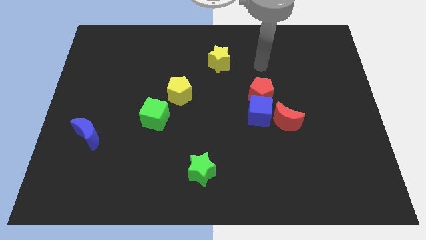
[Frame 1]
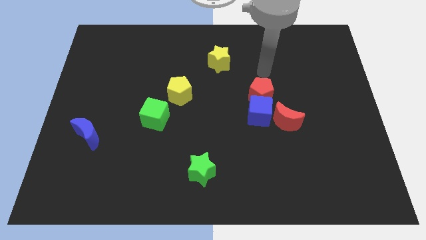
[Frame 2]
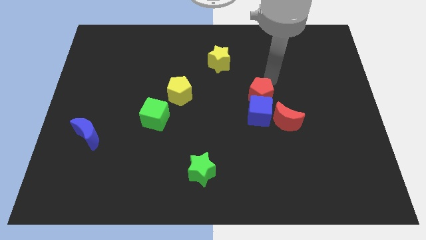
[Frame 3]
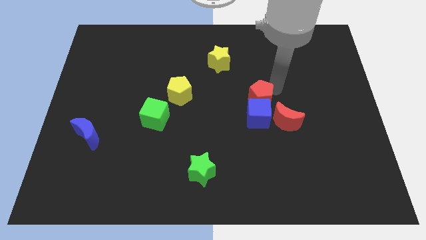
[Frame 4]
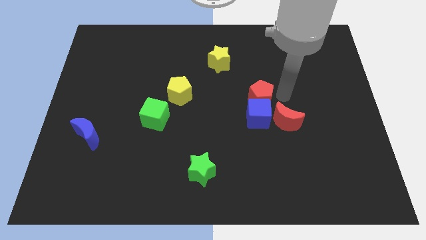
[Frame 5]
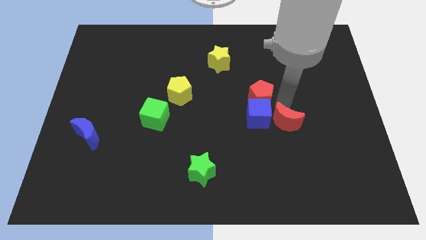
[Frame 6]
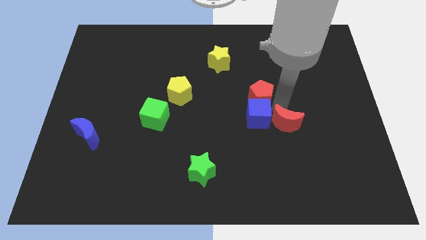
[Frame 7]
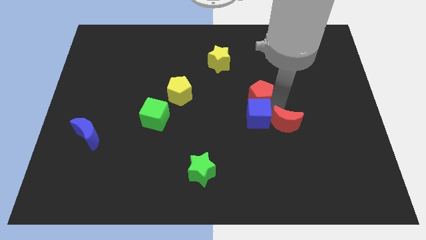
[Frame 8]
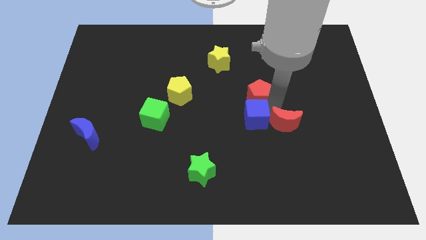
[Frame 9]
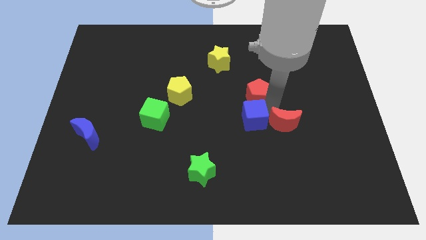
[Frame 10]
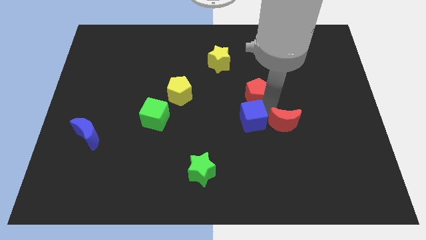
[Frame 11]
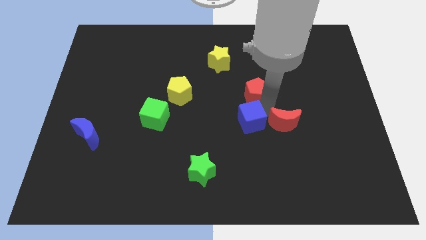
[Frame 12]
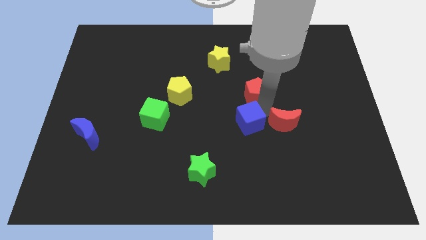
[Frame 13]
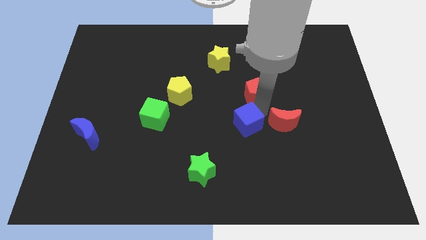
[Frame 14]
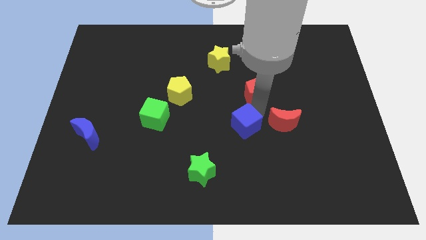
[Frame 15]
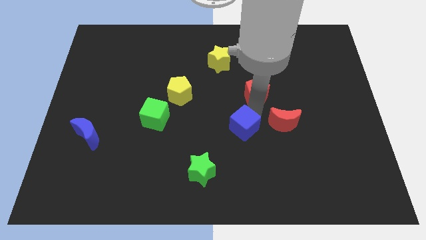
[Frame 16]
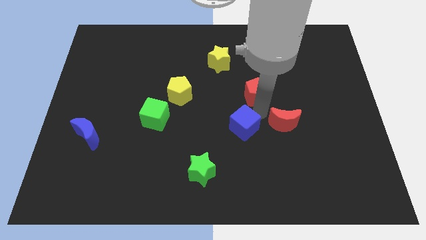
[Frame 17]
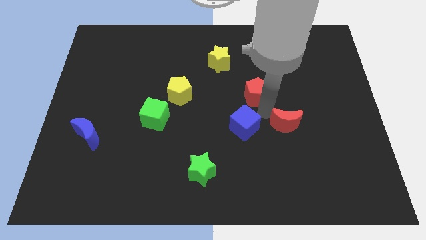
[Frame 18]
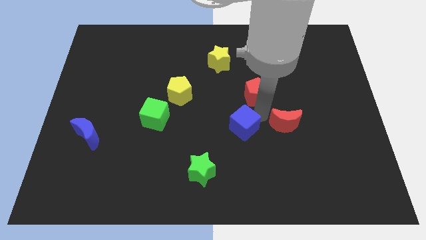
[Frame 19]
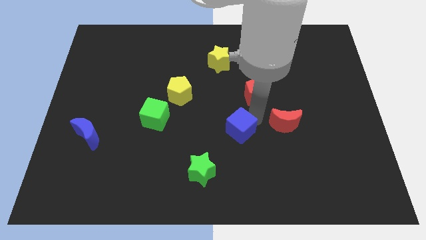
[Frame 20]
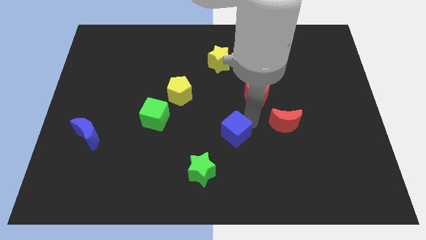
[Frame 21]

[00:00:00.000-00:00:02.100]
separate the blue cube from the red pentagon and red moon

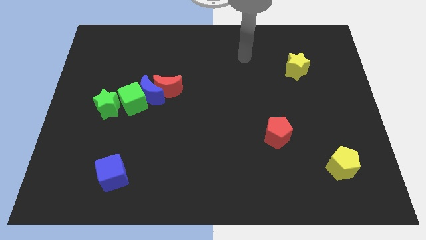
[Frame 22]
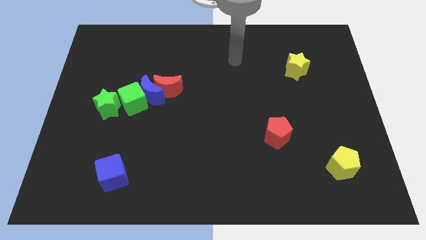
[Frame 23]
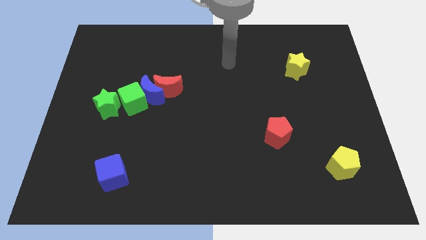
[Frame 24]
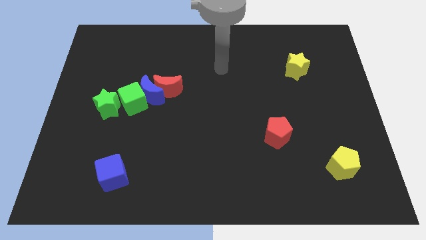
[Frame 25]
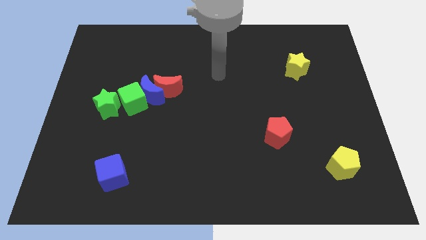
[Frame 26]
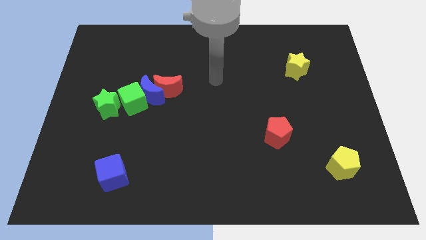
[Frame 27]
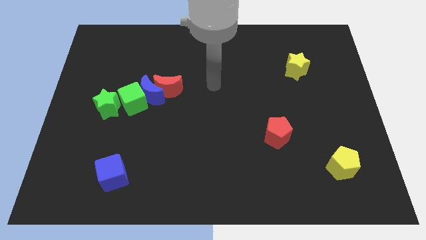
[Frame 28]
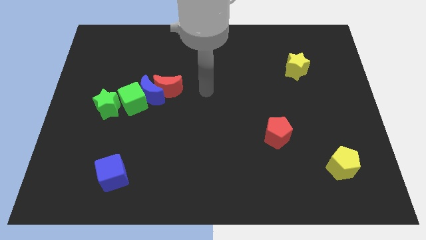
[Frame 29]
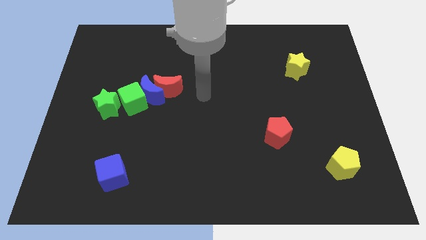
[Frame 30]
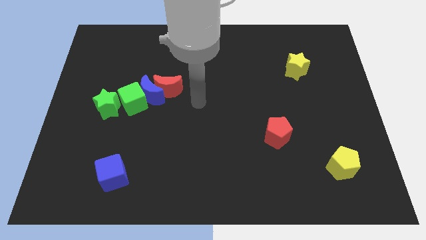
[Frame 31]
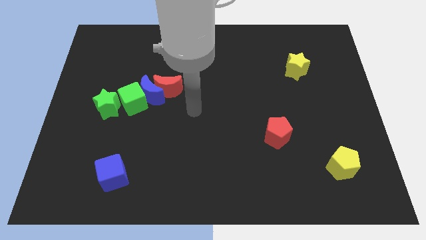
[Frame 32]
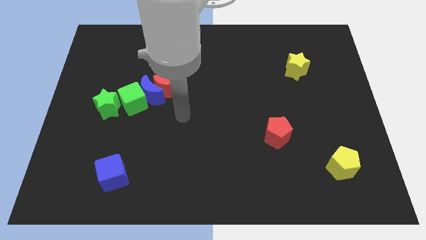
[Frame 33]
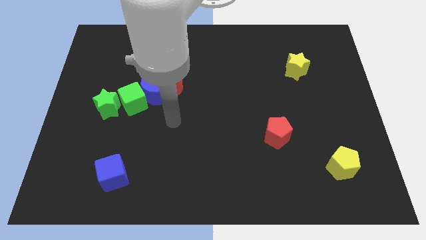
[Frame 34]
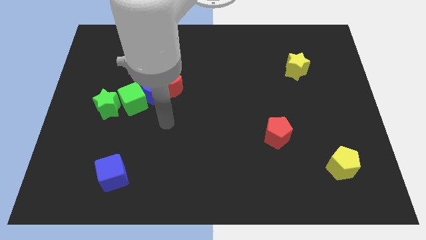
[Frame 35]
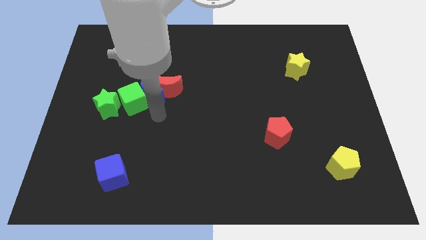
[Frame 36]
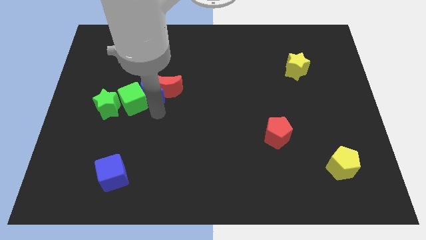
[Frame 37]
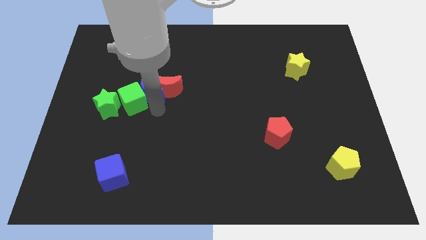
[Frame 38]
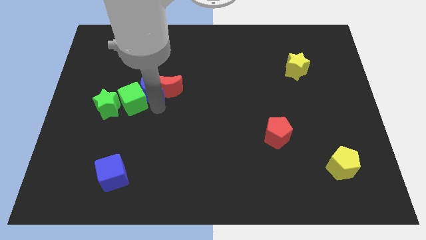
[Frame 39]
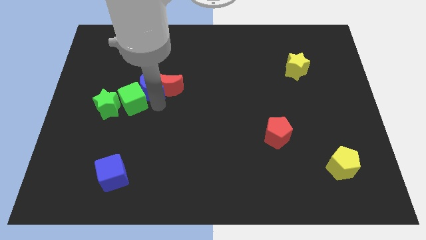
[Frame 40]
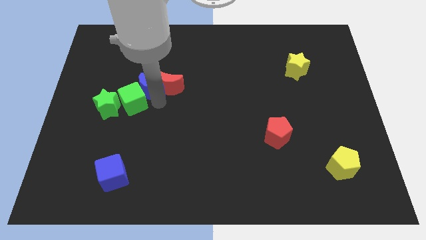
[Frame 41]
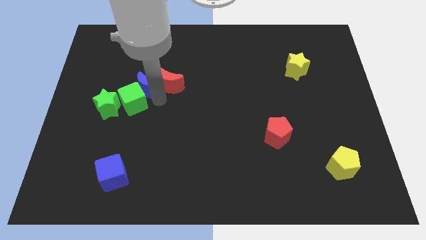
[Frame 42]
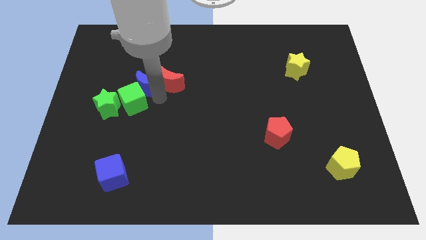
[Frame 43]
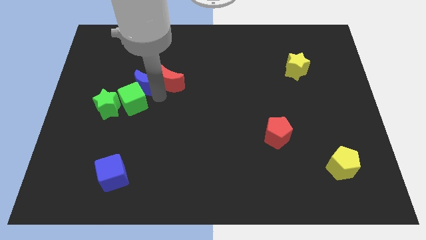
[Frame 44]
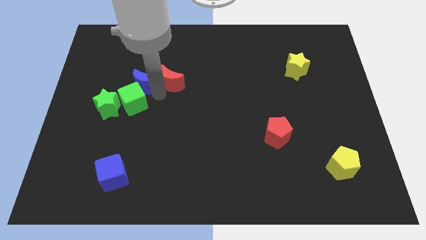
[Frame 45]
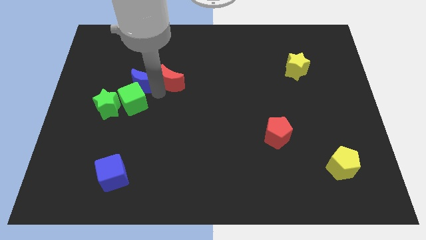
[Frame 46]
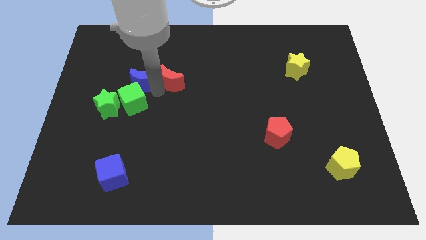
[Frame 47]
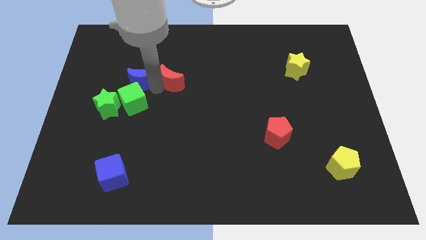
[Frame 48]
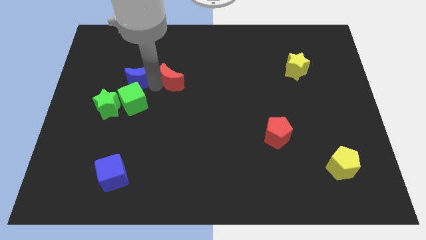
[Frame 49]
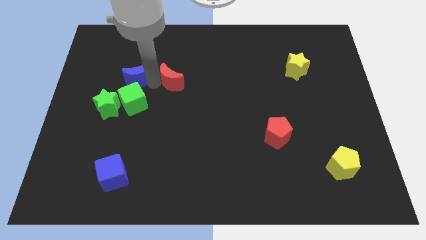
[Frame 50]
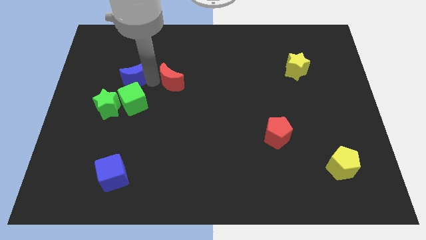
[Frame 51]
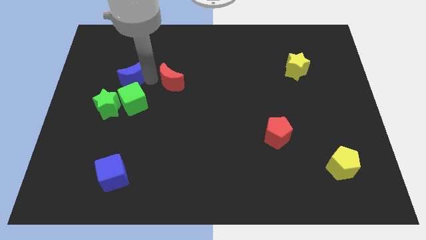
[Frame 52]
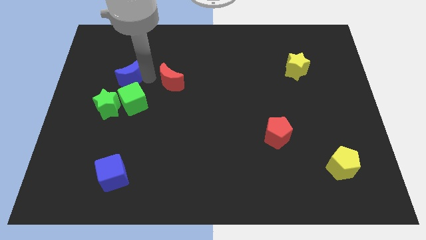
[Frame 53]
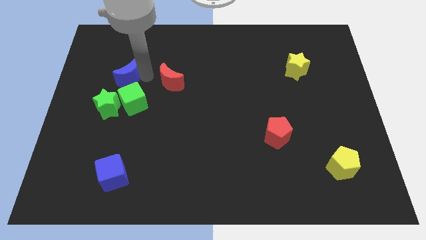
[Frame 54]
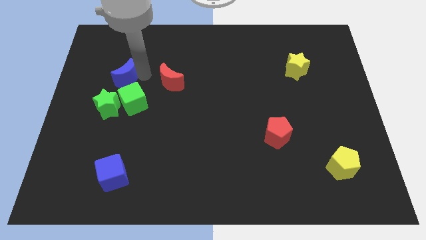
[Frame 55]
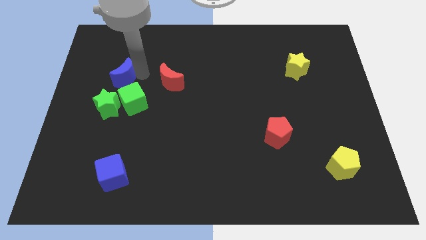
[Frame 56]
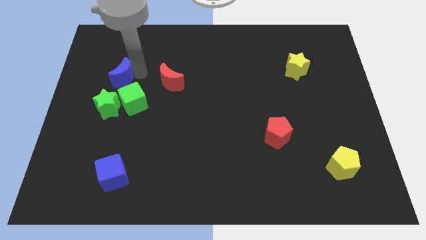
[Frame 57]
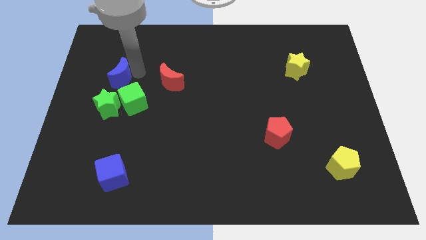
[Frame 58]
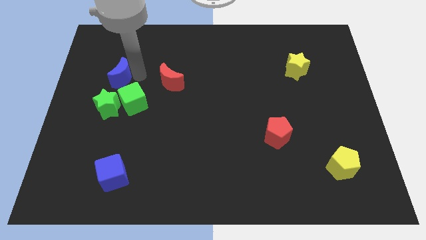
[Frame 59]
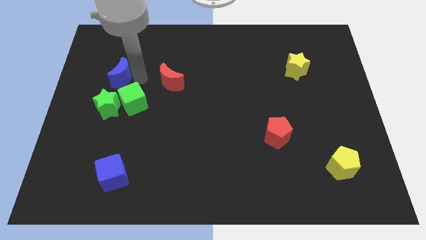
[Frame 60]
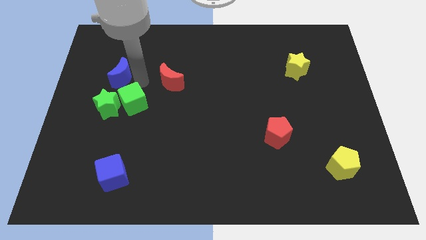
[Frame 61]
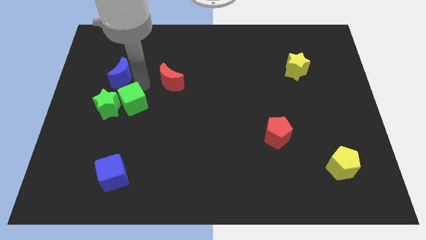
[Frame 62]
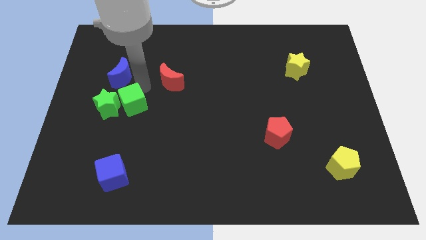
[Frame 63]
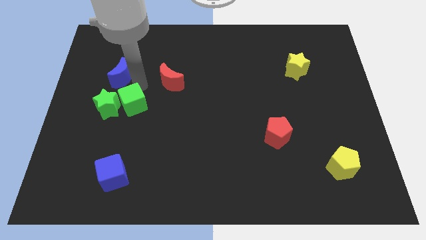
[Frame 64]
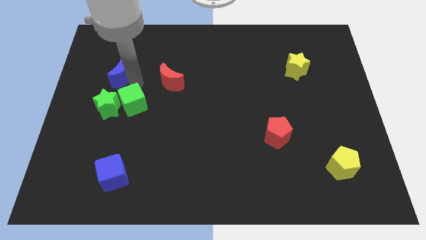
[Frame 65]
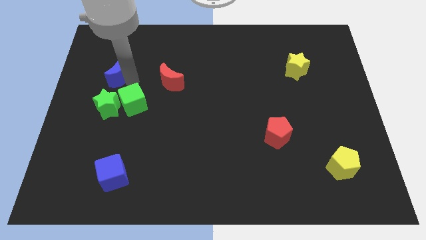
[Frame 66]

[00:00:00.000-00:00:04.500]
pull the blue moon apart from the red moon and green cube

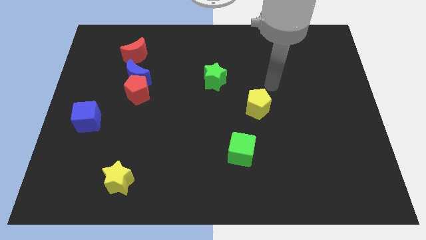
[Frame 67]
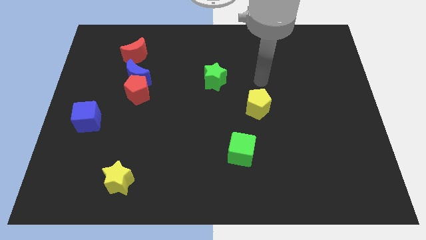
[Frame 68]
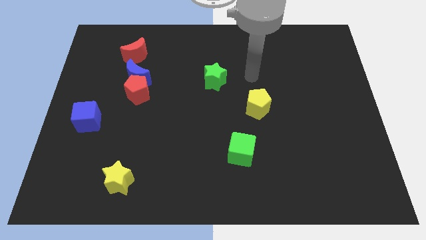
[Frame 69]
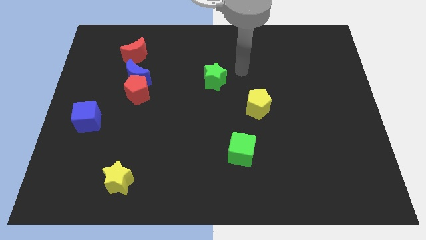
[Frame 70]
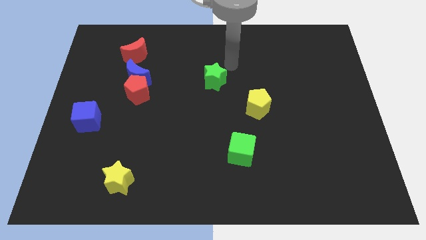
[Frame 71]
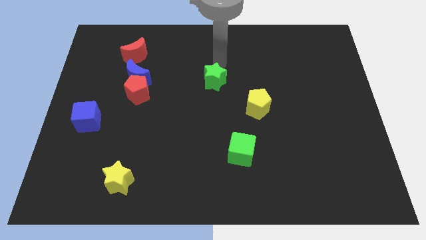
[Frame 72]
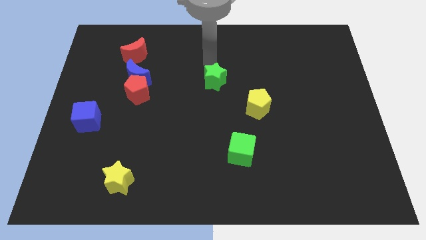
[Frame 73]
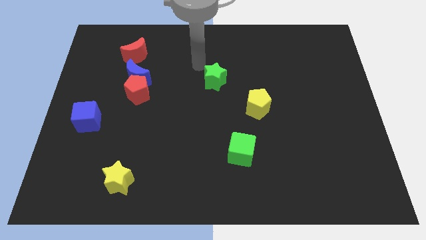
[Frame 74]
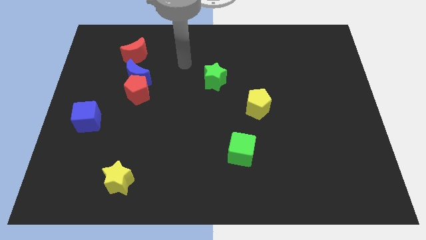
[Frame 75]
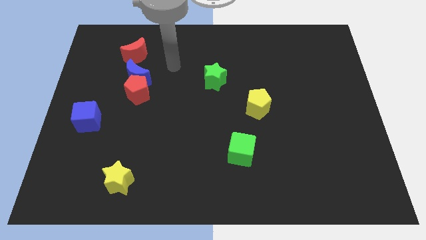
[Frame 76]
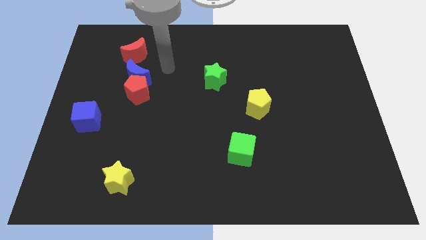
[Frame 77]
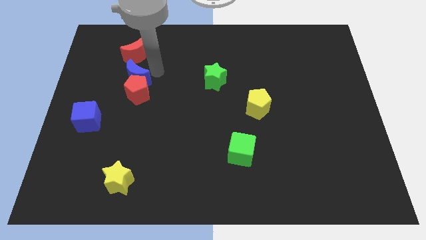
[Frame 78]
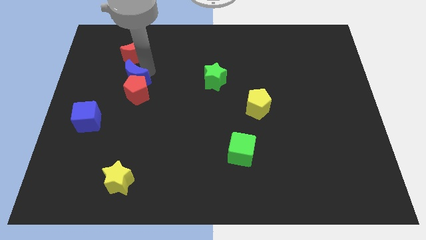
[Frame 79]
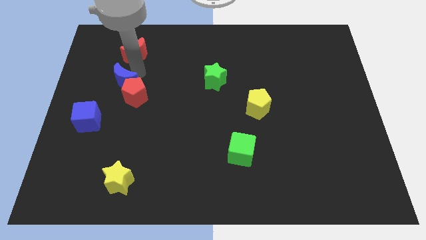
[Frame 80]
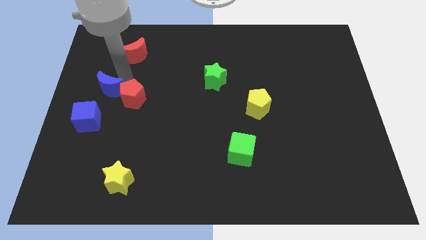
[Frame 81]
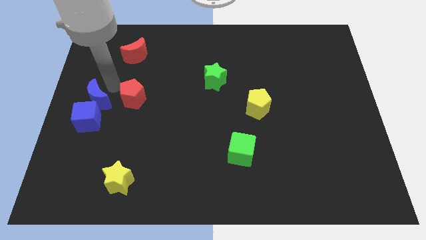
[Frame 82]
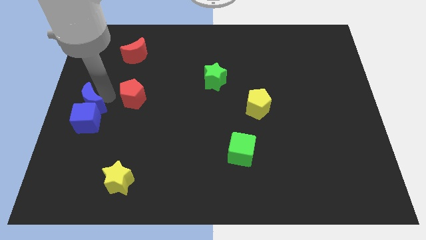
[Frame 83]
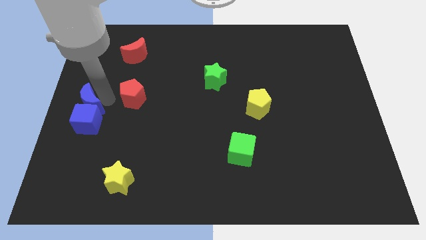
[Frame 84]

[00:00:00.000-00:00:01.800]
move the red pentagon away from the blue moon

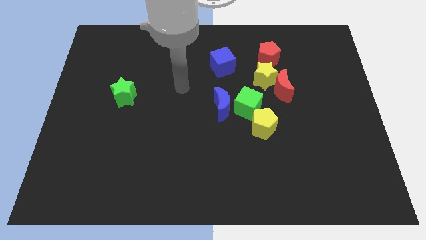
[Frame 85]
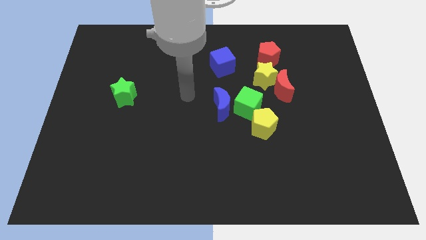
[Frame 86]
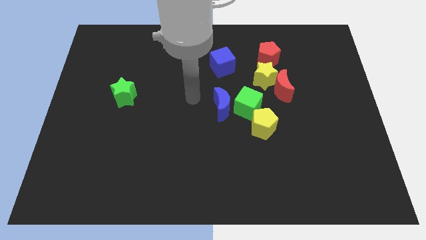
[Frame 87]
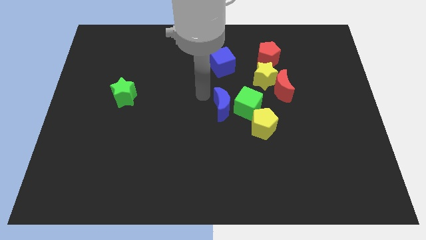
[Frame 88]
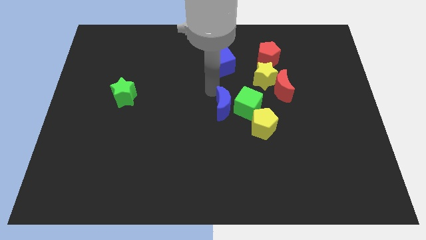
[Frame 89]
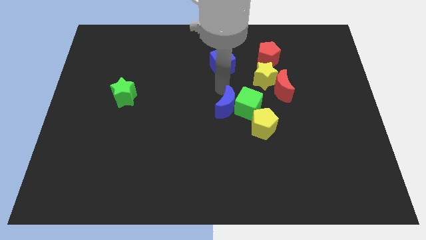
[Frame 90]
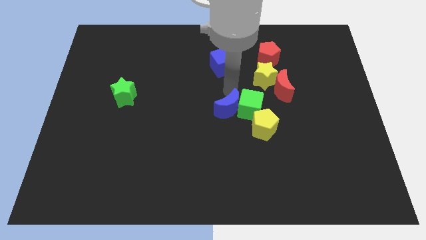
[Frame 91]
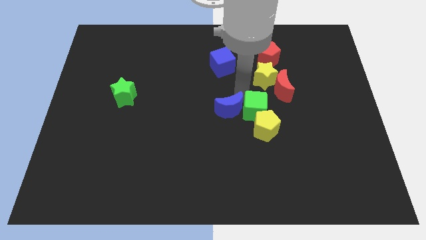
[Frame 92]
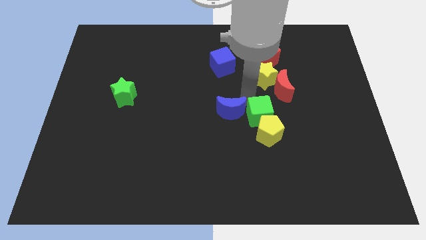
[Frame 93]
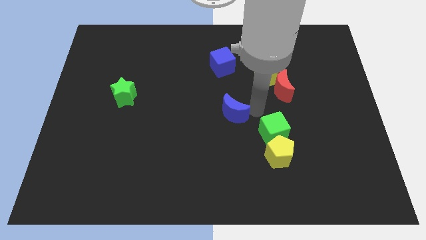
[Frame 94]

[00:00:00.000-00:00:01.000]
pull the blue moon apart from the green cube
